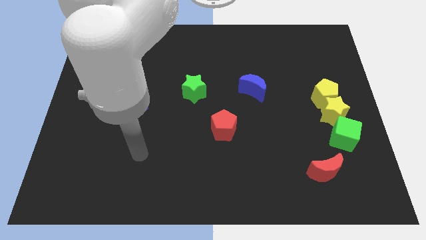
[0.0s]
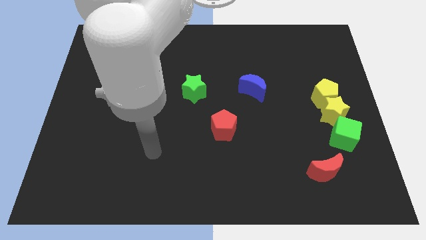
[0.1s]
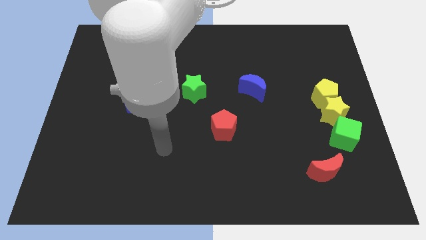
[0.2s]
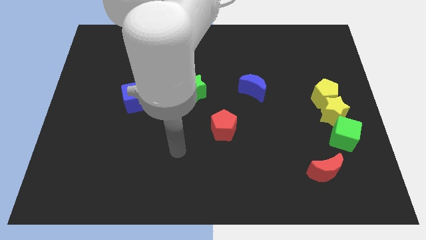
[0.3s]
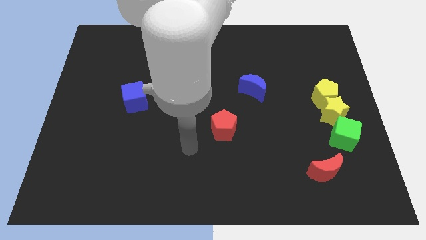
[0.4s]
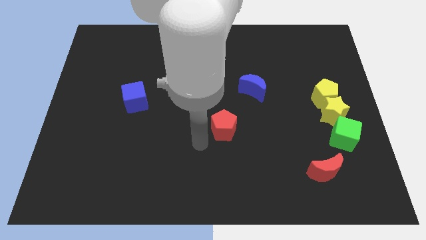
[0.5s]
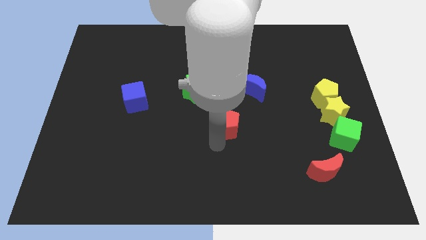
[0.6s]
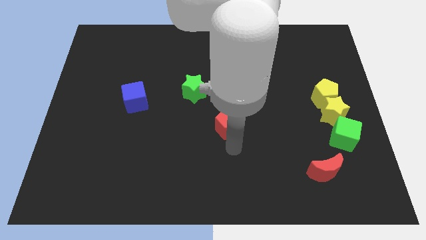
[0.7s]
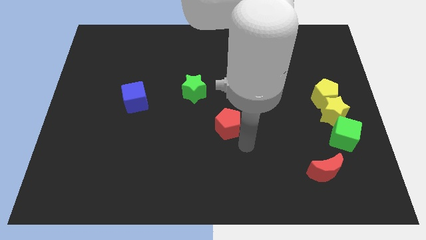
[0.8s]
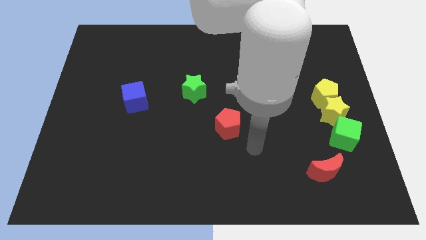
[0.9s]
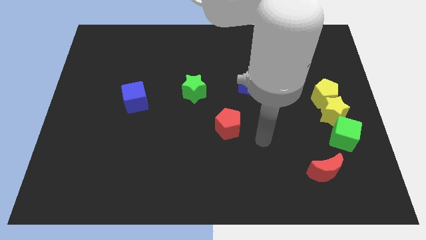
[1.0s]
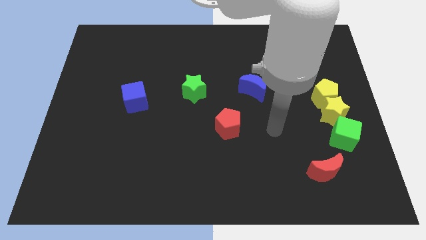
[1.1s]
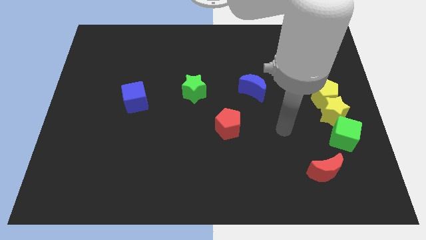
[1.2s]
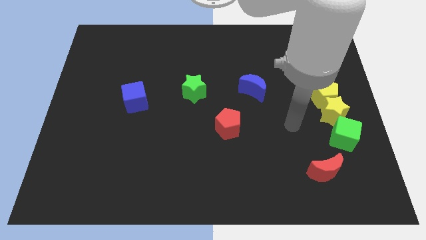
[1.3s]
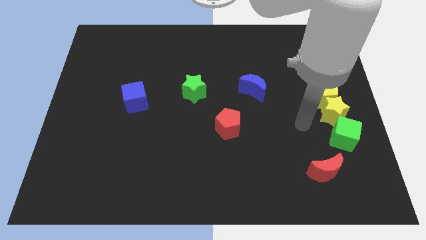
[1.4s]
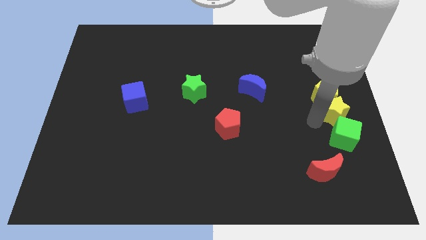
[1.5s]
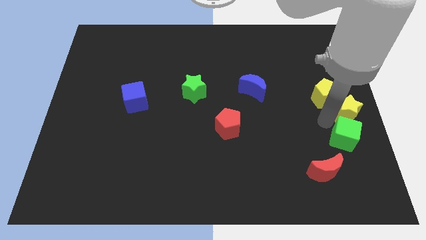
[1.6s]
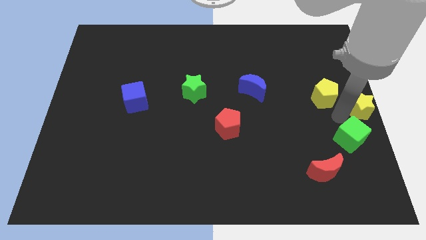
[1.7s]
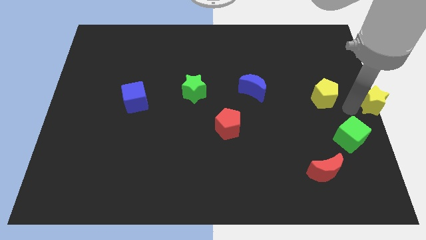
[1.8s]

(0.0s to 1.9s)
pull the yellow pentagon apart from the yellow star

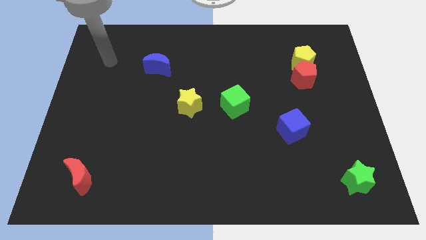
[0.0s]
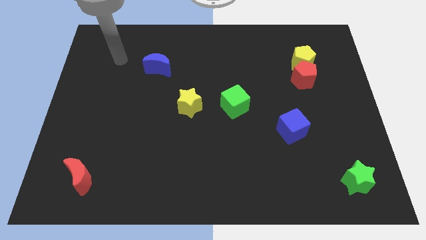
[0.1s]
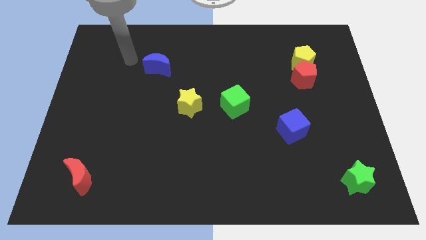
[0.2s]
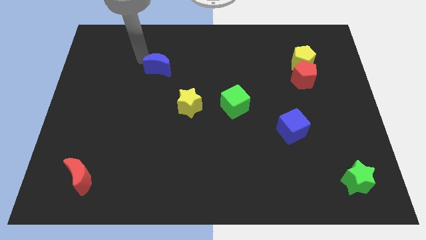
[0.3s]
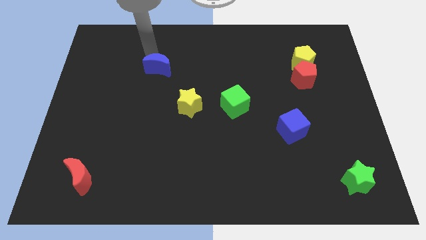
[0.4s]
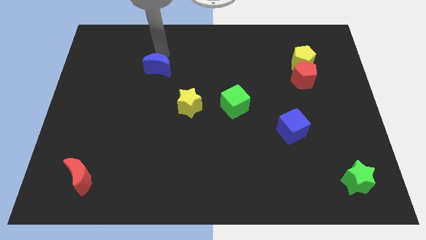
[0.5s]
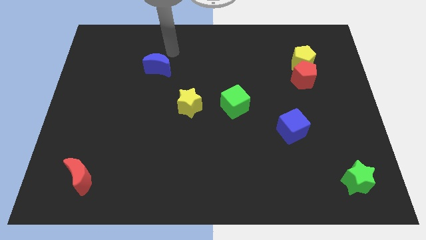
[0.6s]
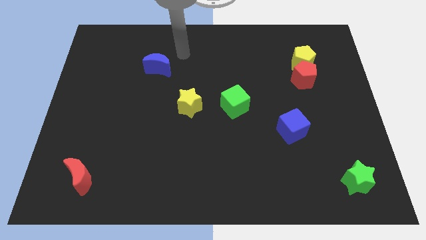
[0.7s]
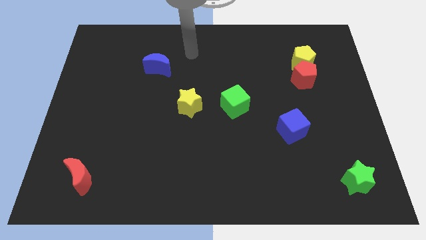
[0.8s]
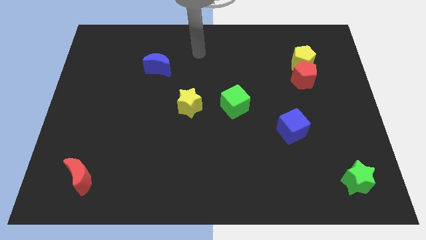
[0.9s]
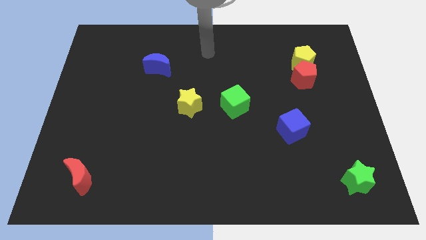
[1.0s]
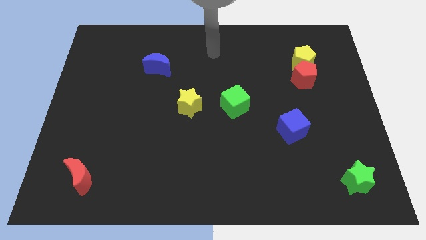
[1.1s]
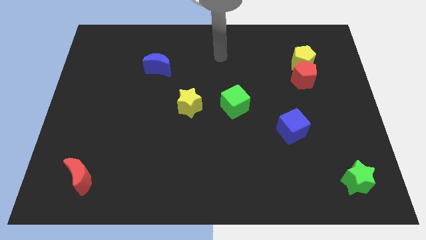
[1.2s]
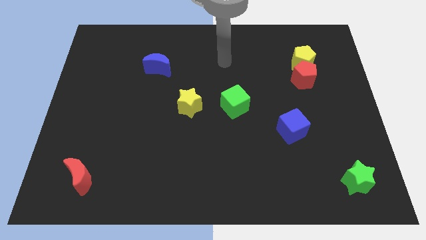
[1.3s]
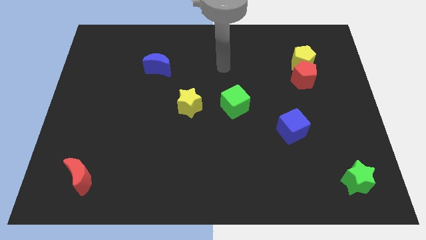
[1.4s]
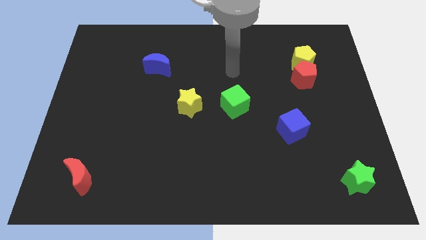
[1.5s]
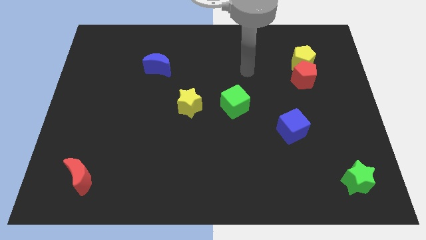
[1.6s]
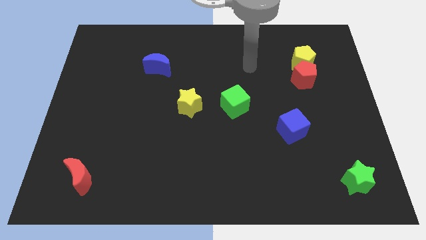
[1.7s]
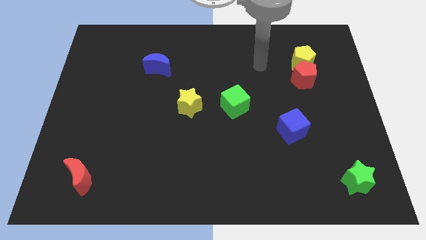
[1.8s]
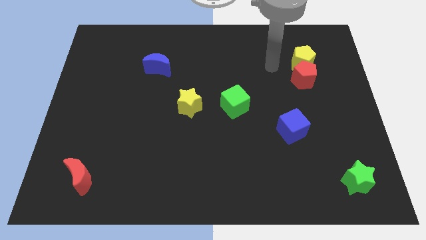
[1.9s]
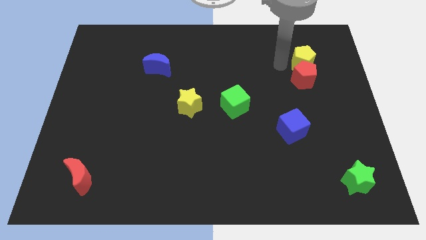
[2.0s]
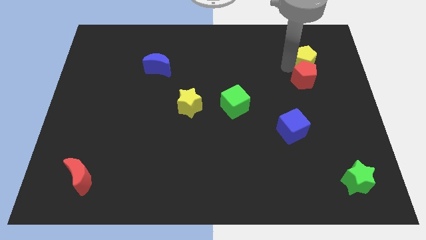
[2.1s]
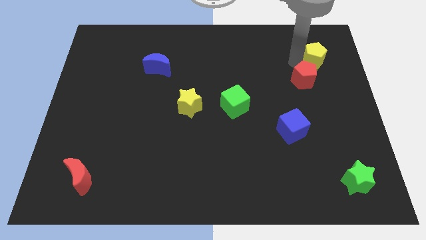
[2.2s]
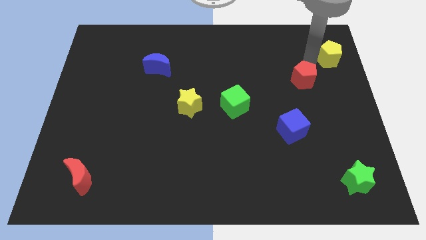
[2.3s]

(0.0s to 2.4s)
move the red pentagon away from the yellow pentagon

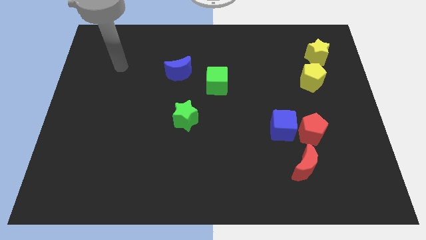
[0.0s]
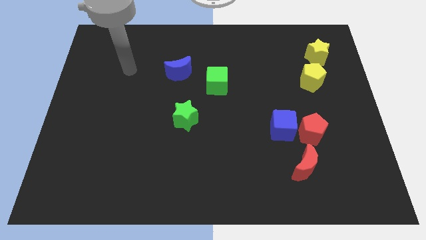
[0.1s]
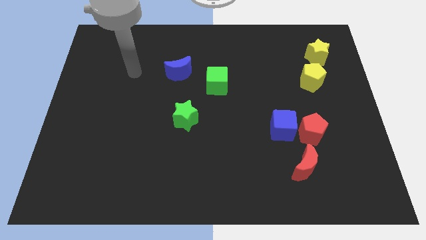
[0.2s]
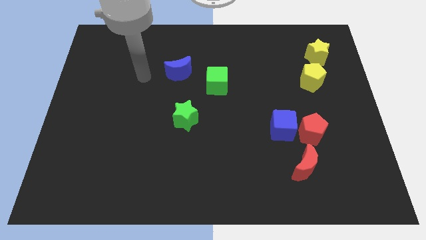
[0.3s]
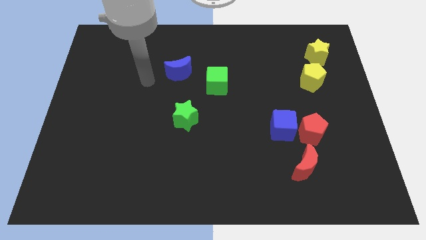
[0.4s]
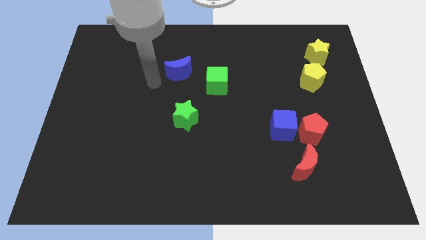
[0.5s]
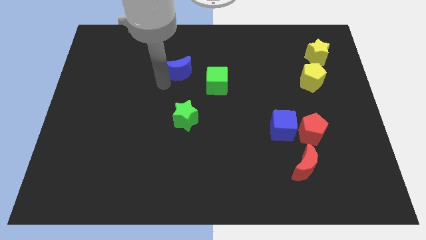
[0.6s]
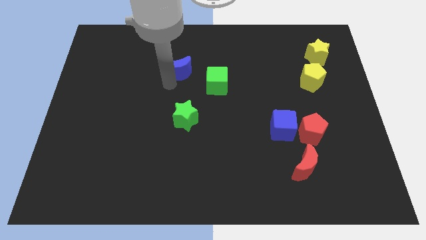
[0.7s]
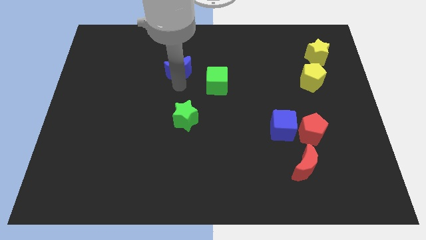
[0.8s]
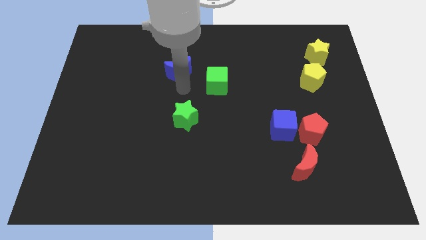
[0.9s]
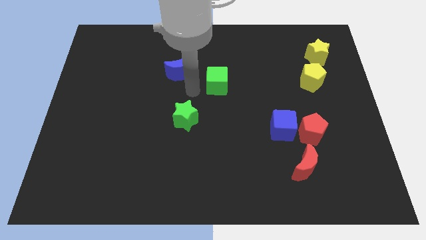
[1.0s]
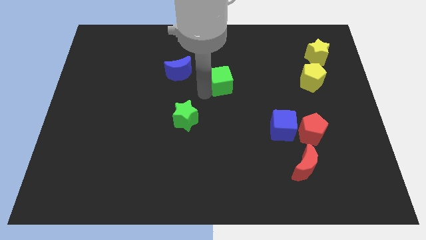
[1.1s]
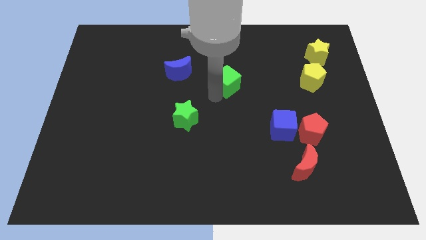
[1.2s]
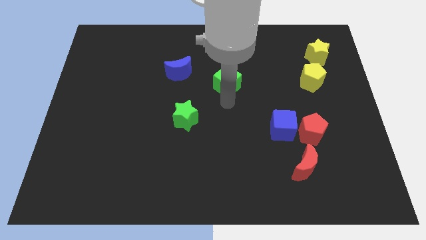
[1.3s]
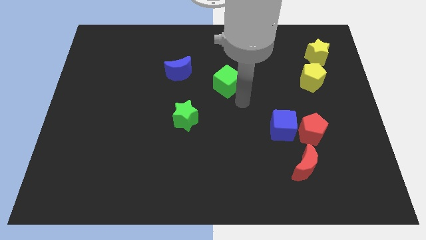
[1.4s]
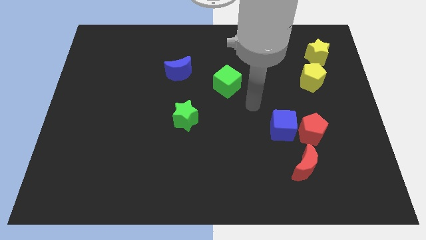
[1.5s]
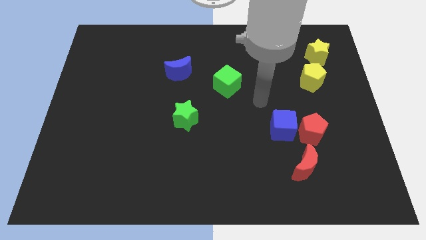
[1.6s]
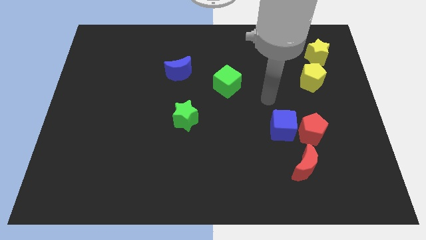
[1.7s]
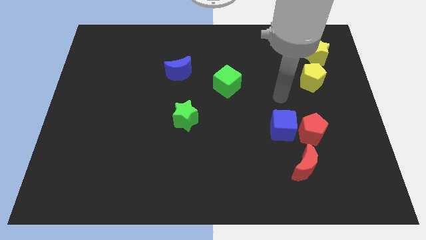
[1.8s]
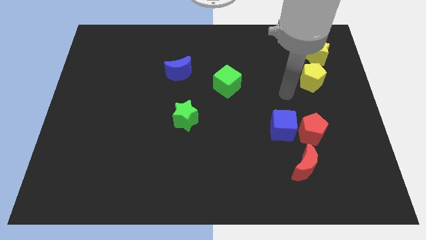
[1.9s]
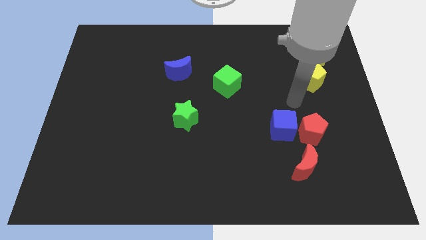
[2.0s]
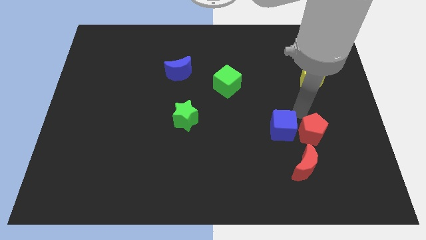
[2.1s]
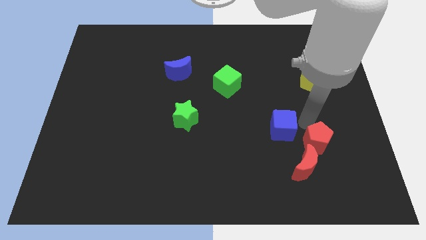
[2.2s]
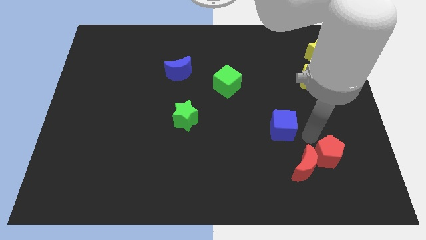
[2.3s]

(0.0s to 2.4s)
move the blue cube away from the red pentagon

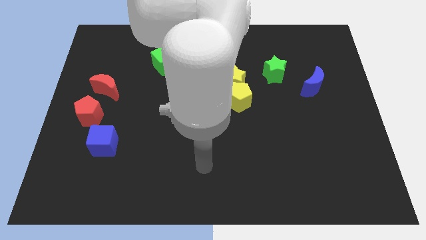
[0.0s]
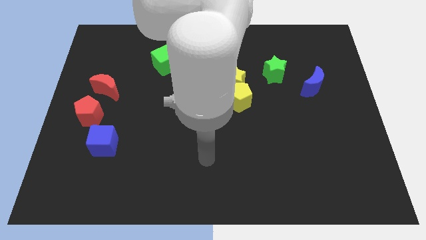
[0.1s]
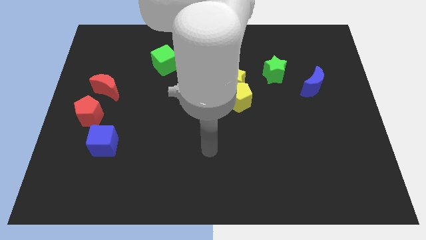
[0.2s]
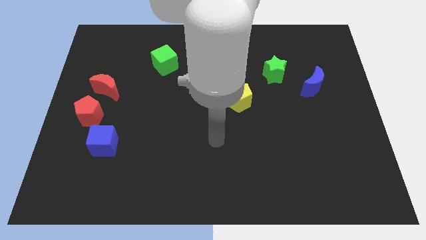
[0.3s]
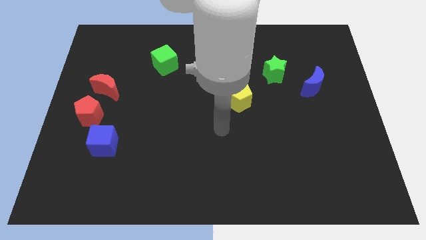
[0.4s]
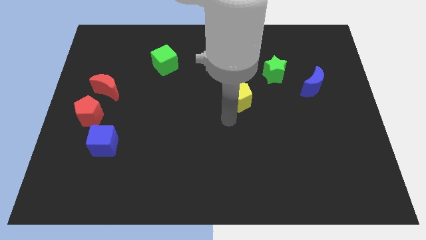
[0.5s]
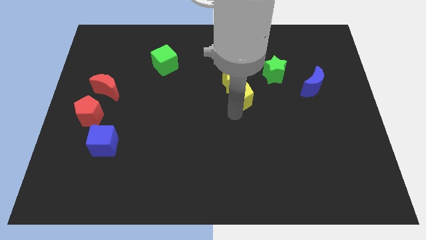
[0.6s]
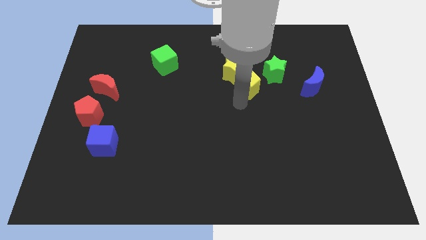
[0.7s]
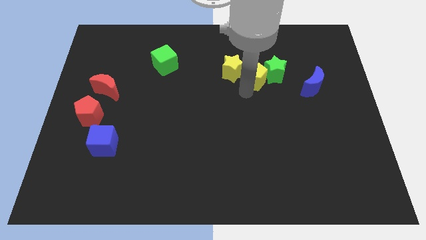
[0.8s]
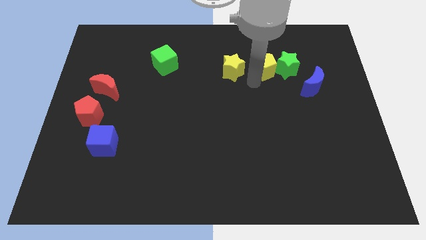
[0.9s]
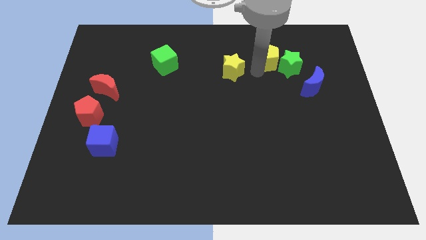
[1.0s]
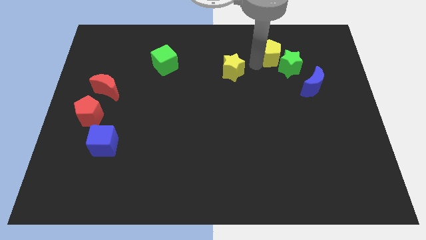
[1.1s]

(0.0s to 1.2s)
pull the yellow star apart from the yellow pentagon

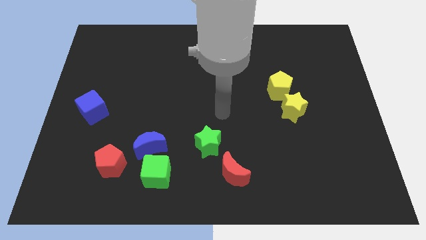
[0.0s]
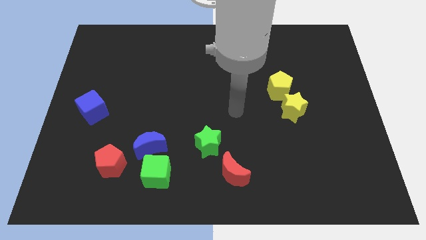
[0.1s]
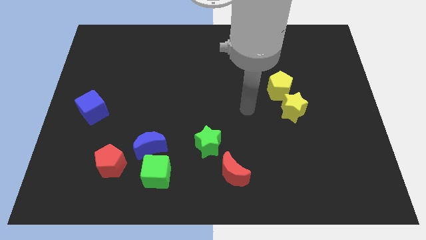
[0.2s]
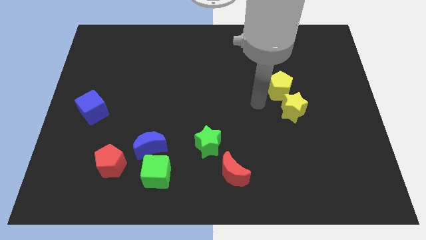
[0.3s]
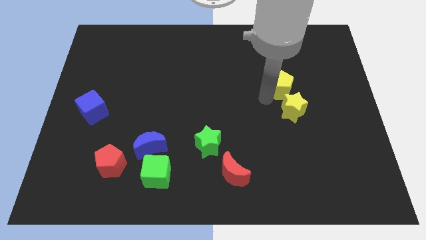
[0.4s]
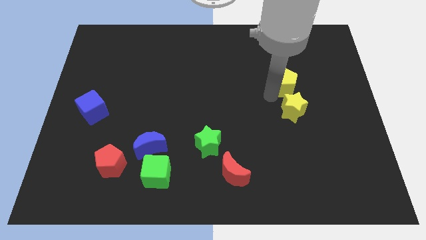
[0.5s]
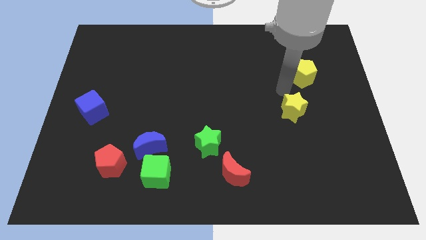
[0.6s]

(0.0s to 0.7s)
separate the yellow star from the yellow pentagon

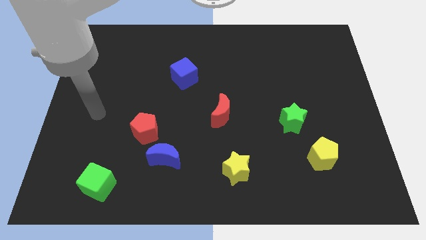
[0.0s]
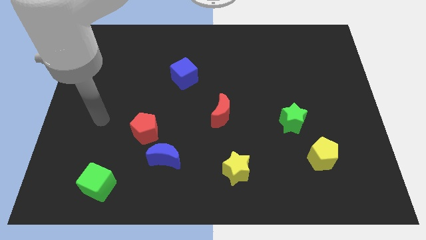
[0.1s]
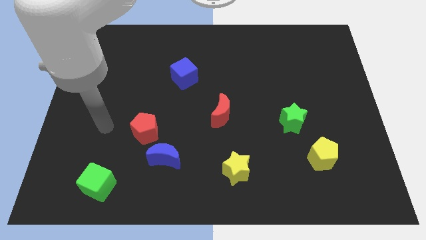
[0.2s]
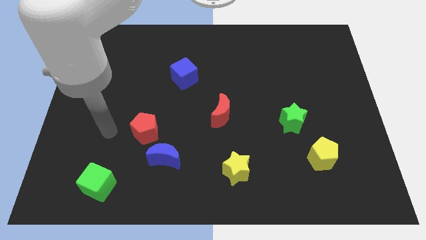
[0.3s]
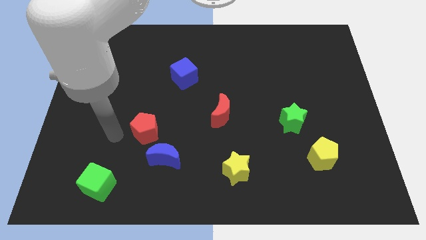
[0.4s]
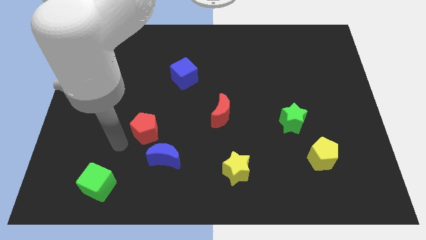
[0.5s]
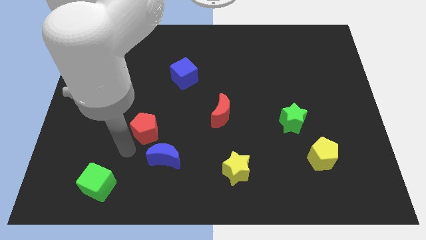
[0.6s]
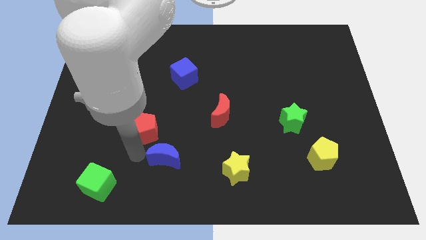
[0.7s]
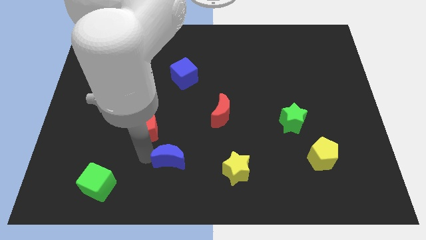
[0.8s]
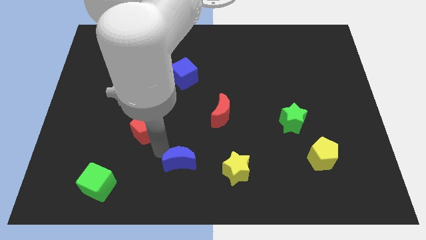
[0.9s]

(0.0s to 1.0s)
move the red pentagon away from the blue moon
